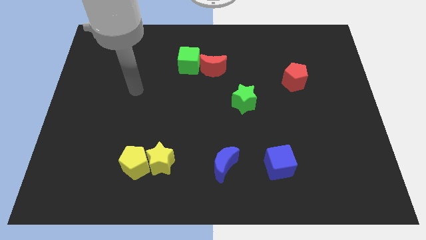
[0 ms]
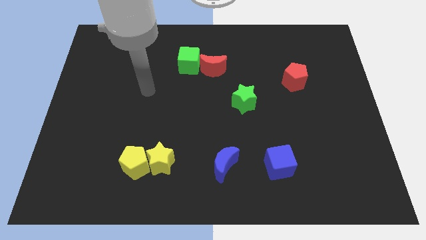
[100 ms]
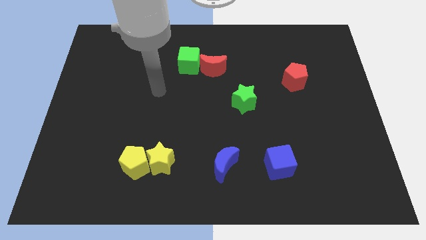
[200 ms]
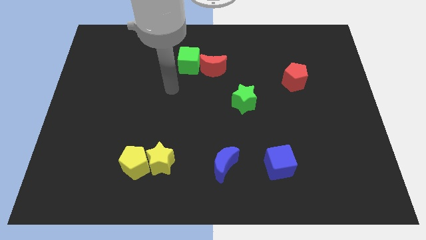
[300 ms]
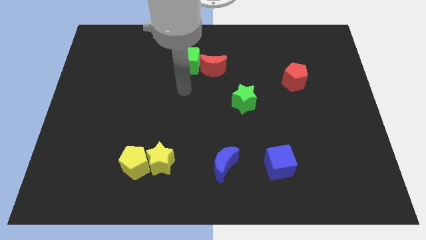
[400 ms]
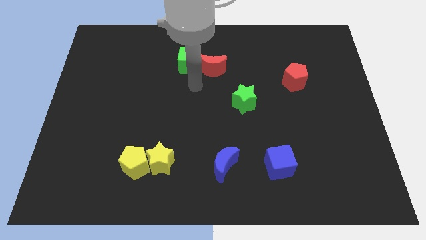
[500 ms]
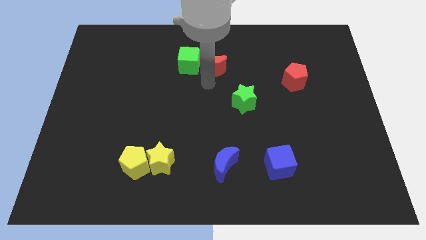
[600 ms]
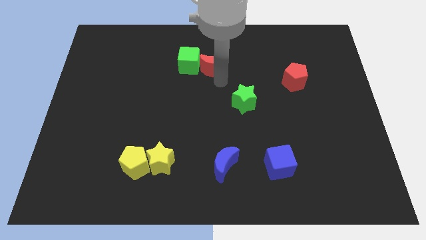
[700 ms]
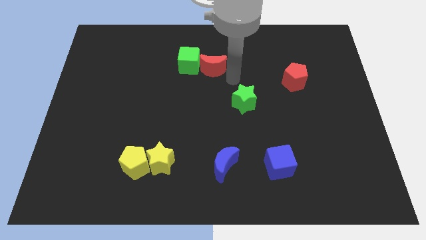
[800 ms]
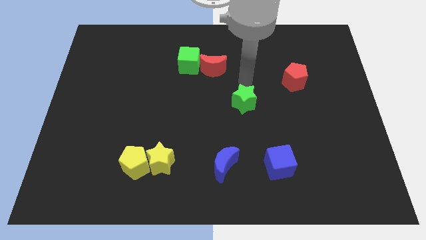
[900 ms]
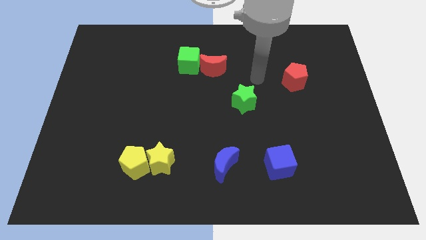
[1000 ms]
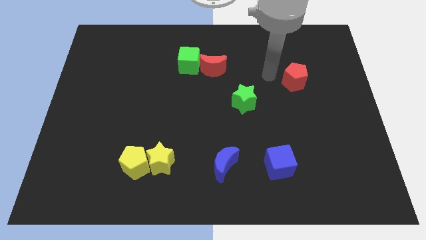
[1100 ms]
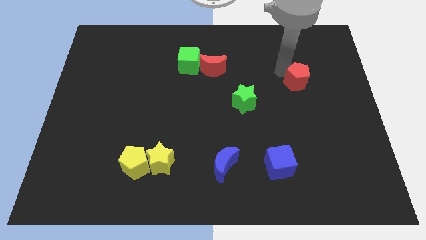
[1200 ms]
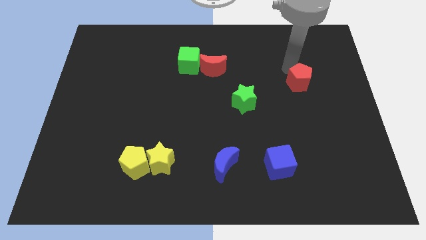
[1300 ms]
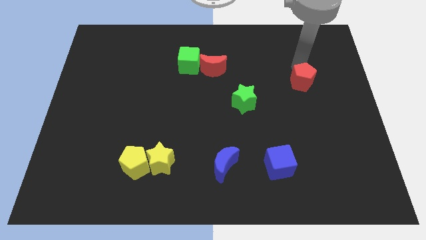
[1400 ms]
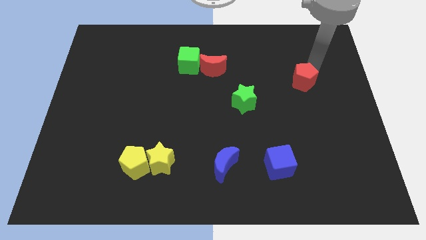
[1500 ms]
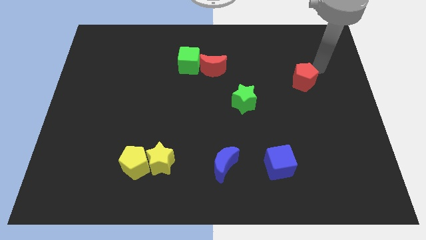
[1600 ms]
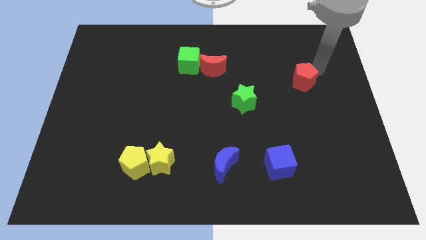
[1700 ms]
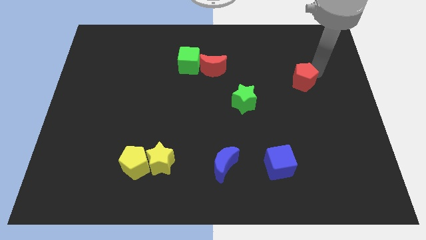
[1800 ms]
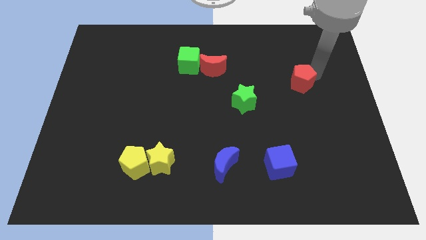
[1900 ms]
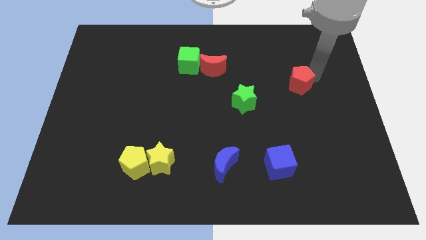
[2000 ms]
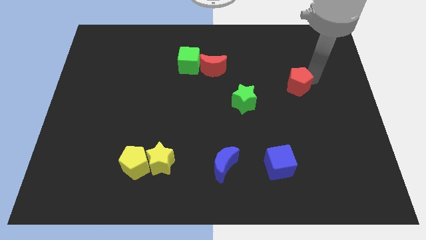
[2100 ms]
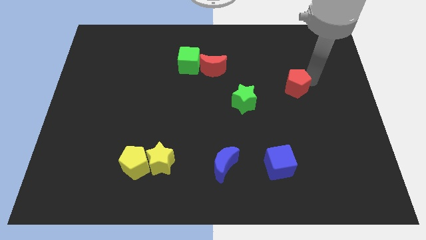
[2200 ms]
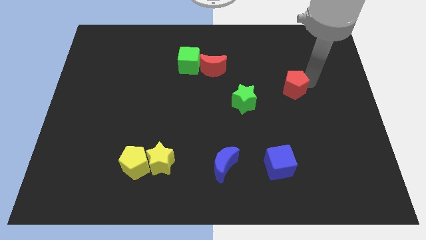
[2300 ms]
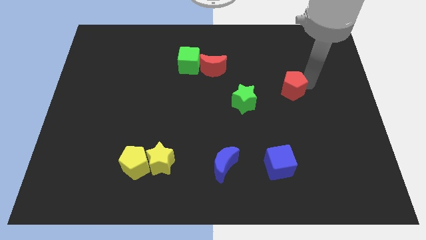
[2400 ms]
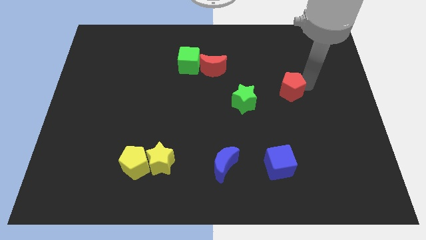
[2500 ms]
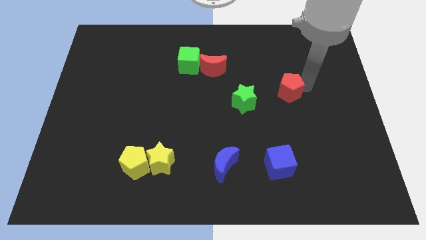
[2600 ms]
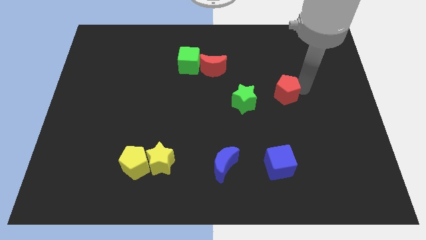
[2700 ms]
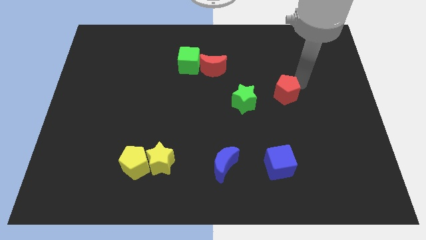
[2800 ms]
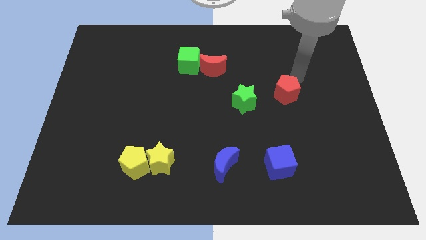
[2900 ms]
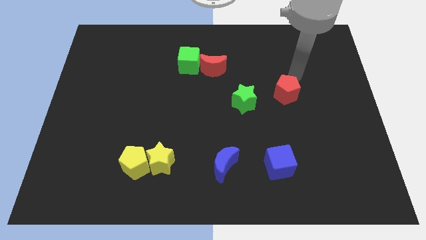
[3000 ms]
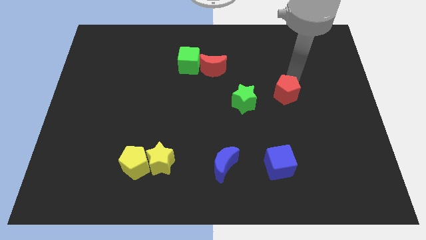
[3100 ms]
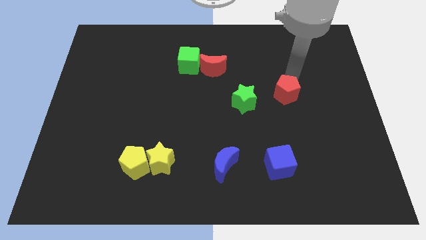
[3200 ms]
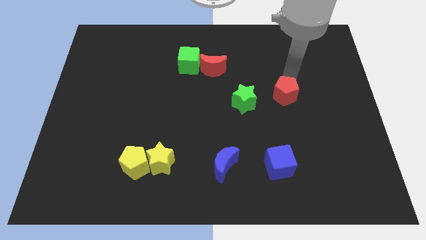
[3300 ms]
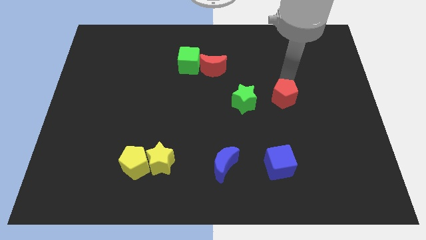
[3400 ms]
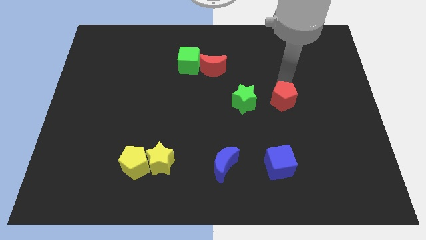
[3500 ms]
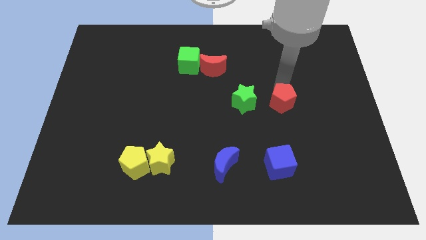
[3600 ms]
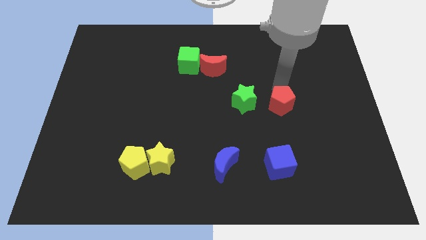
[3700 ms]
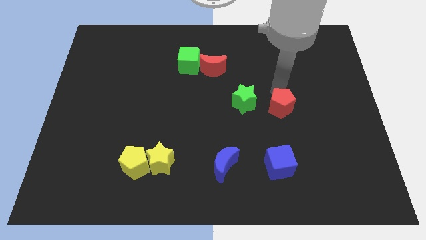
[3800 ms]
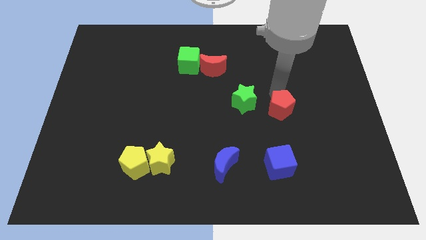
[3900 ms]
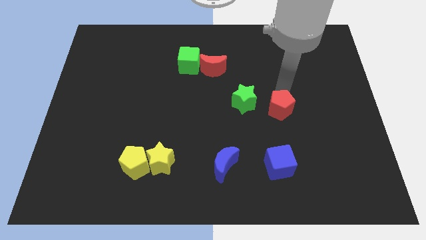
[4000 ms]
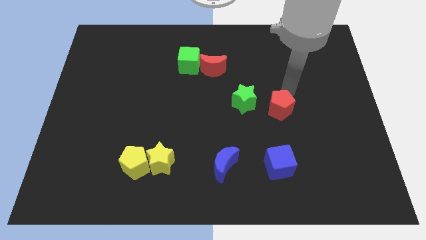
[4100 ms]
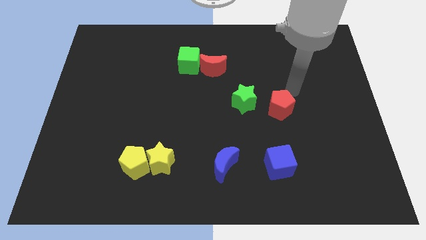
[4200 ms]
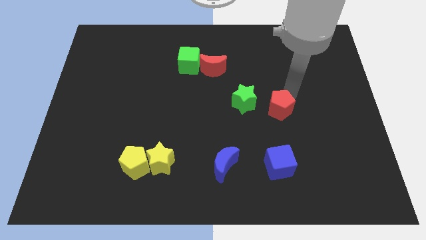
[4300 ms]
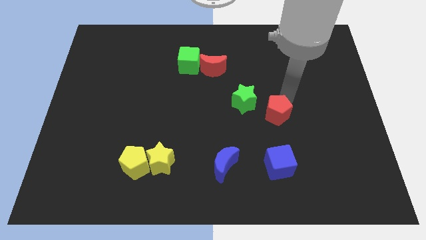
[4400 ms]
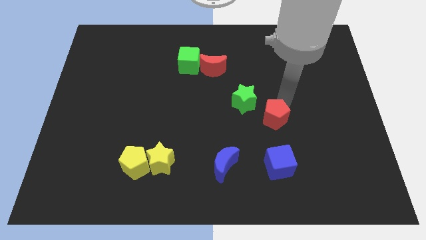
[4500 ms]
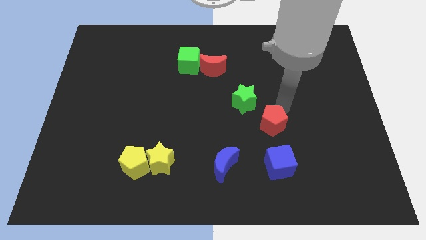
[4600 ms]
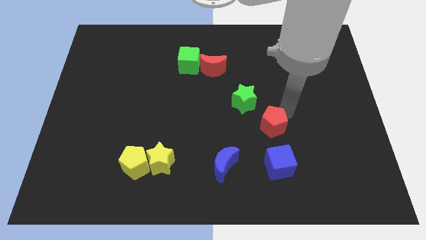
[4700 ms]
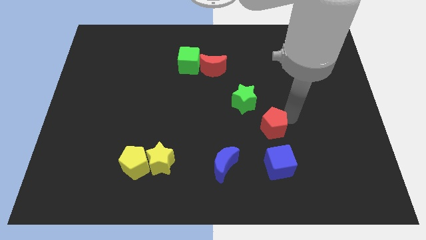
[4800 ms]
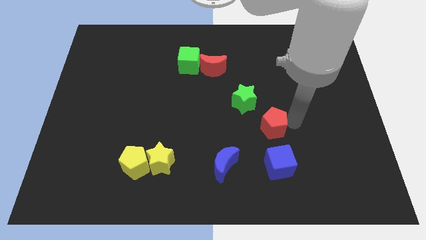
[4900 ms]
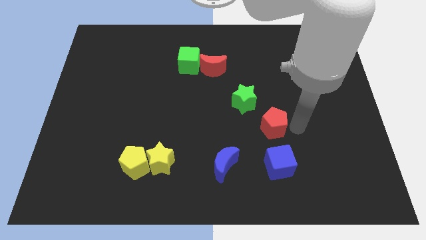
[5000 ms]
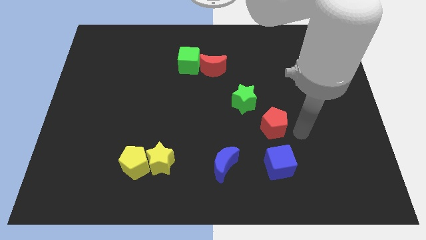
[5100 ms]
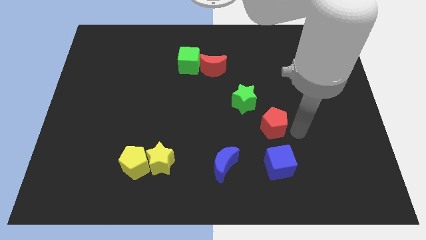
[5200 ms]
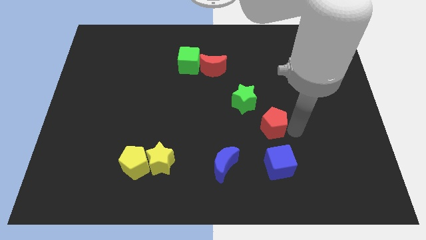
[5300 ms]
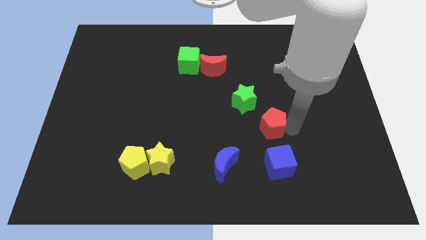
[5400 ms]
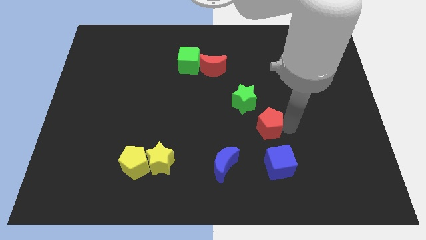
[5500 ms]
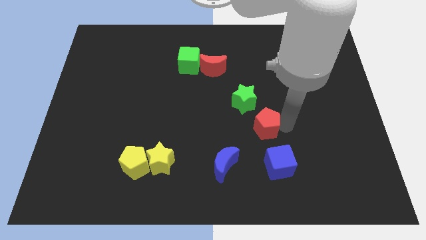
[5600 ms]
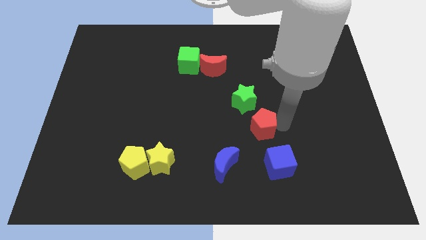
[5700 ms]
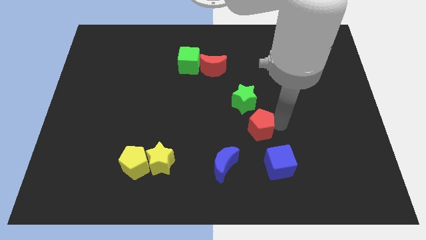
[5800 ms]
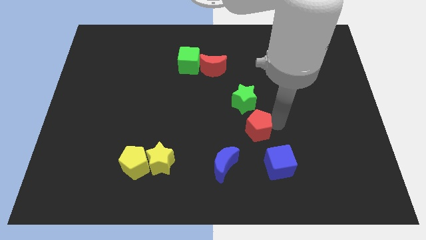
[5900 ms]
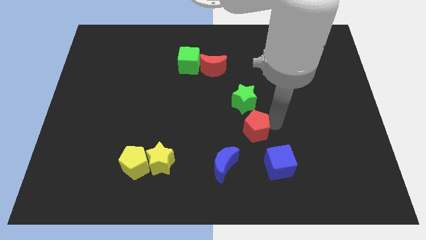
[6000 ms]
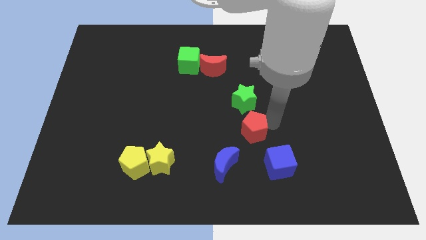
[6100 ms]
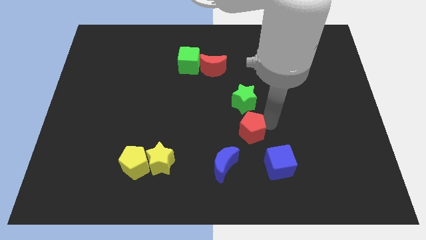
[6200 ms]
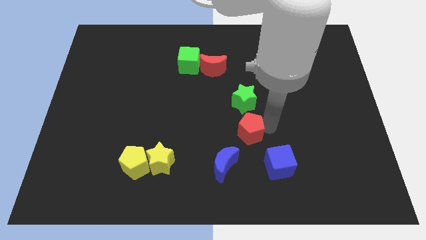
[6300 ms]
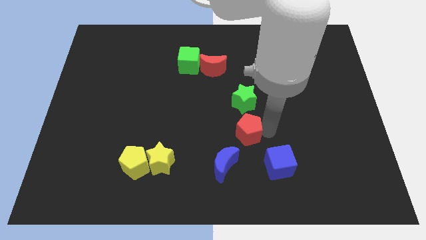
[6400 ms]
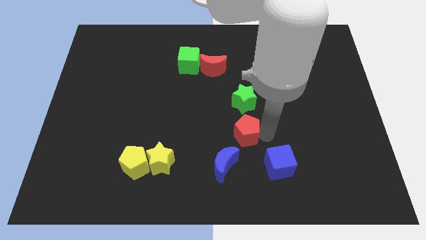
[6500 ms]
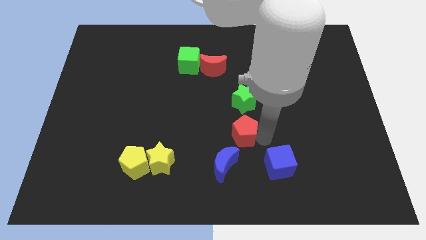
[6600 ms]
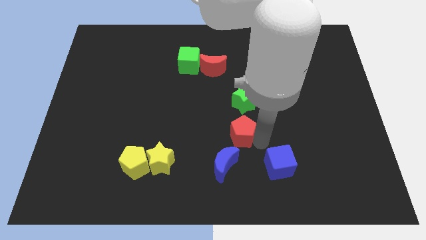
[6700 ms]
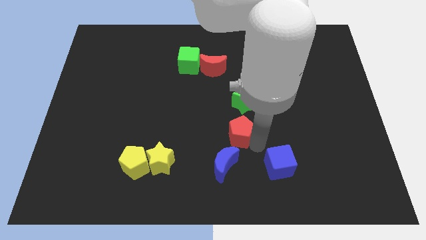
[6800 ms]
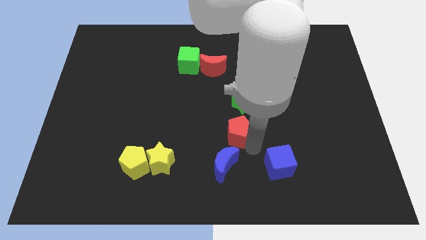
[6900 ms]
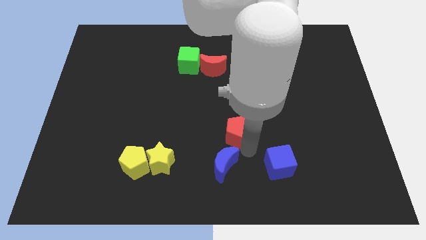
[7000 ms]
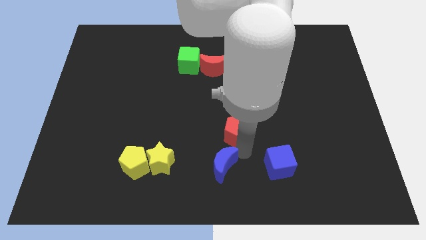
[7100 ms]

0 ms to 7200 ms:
slide the red pentagon to the bottom left side of the green star
